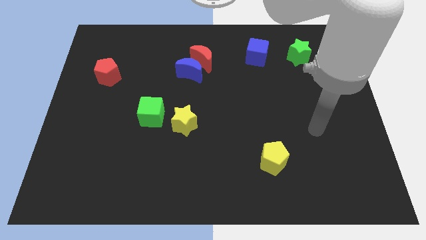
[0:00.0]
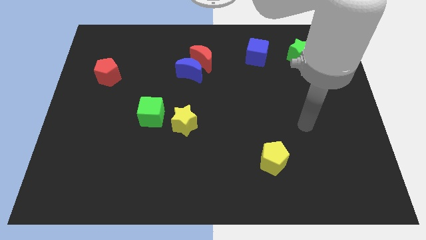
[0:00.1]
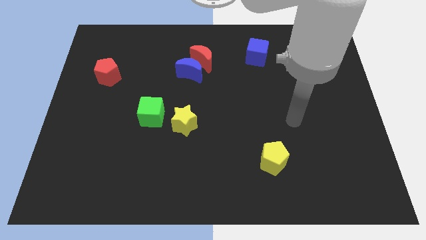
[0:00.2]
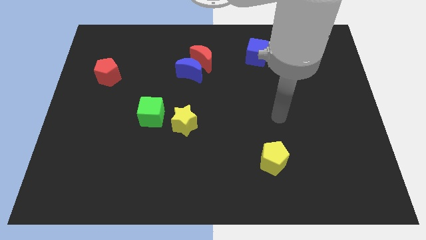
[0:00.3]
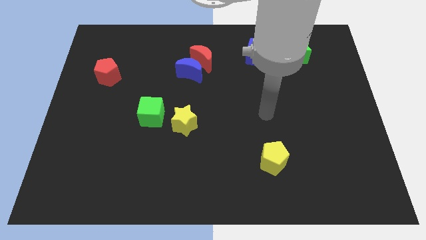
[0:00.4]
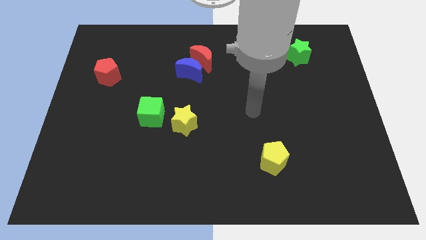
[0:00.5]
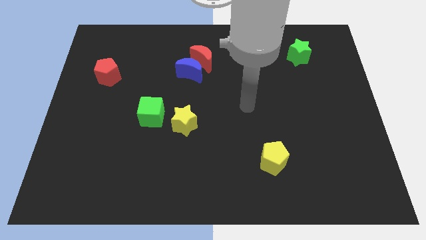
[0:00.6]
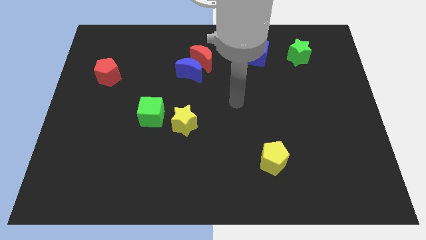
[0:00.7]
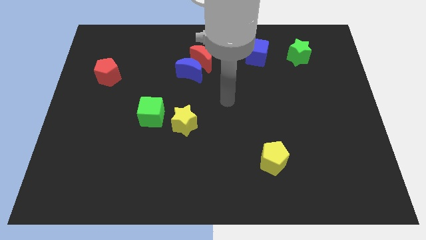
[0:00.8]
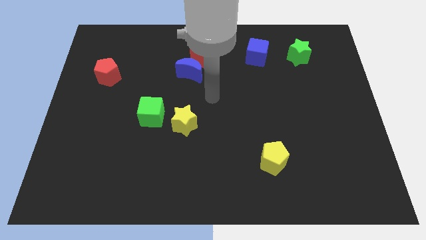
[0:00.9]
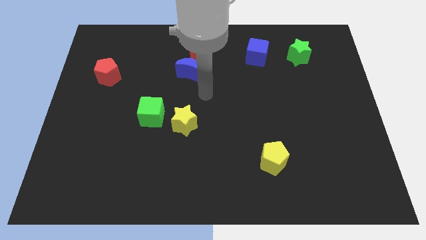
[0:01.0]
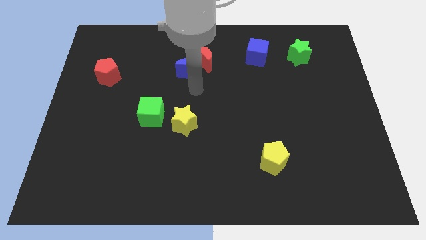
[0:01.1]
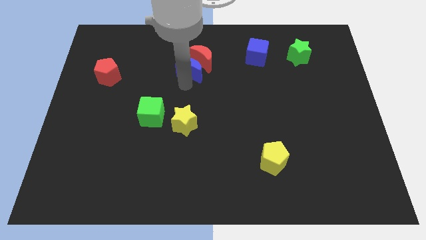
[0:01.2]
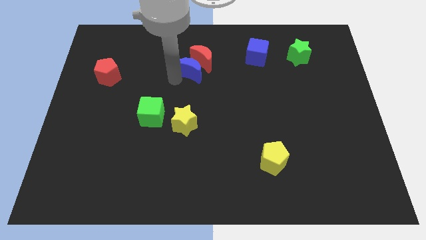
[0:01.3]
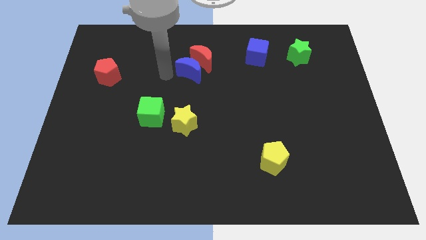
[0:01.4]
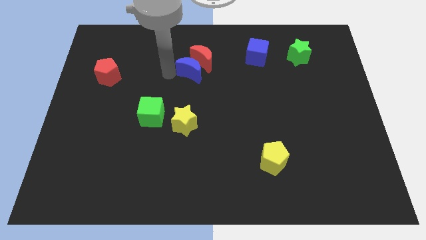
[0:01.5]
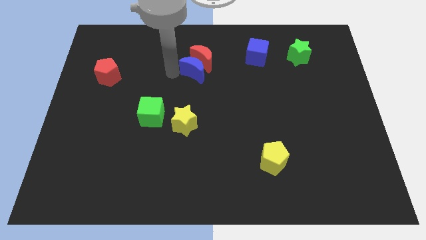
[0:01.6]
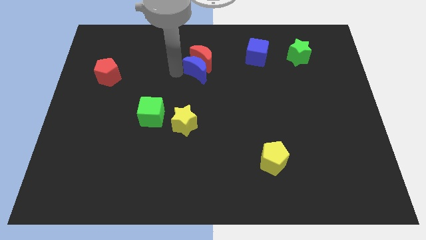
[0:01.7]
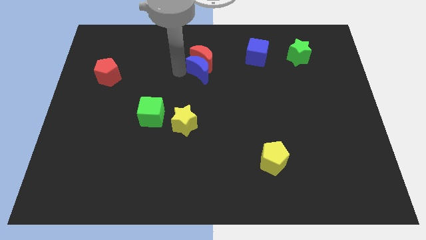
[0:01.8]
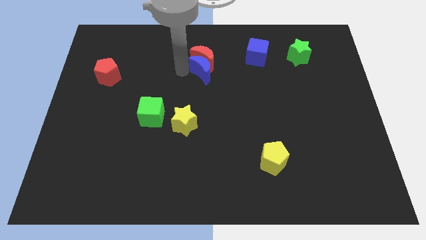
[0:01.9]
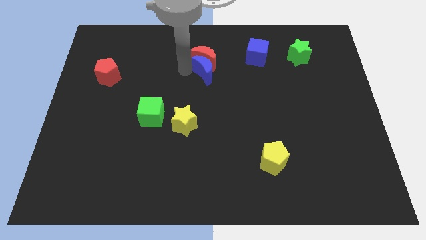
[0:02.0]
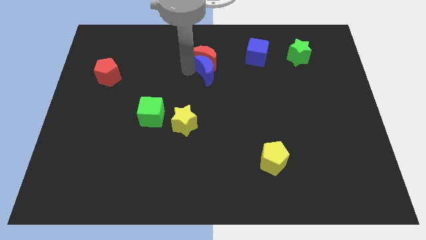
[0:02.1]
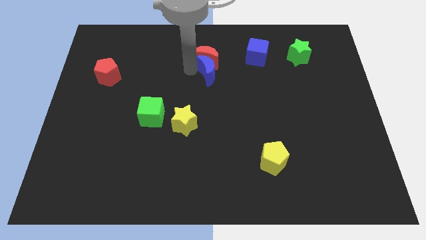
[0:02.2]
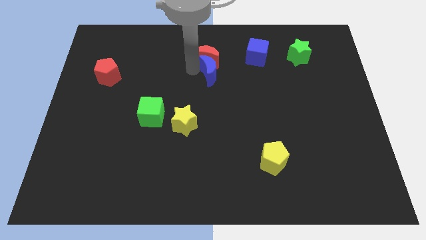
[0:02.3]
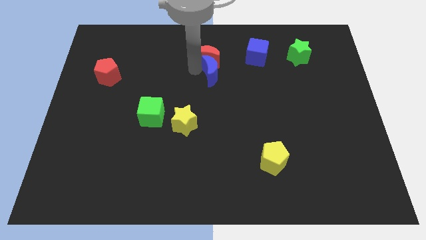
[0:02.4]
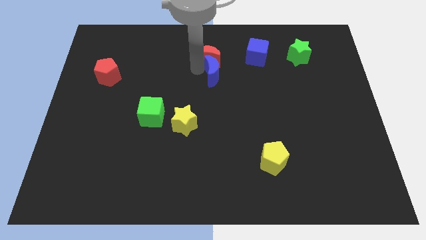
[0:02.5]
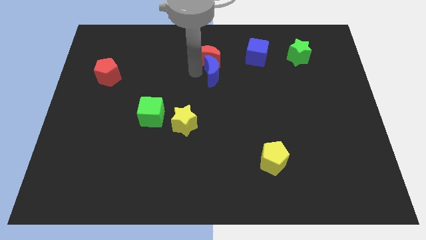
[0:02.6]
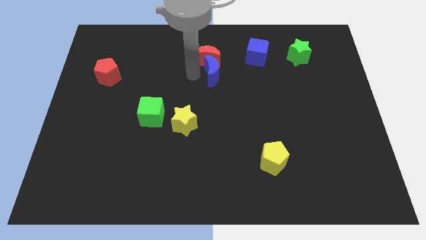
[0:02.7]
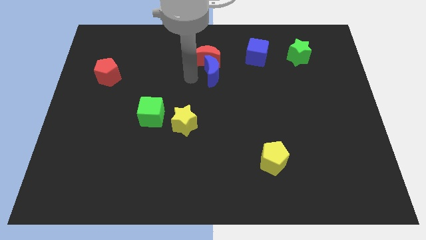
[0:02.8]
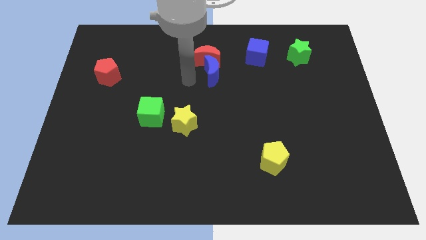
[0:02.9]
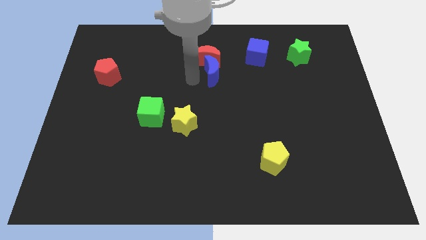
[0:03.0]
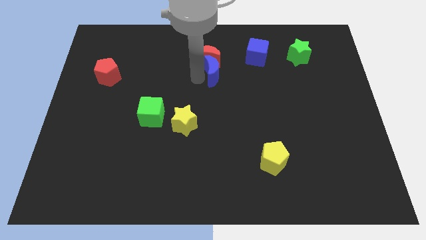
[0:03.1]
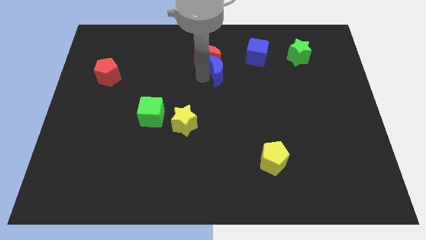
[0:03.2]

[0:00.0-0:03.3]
slightly move the blue moon to the right
